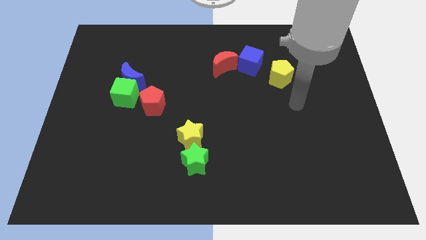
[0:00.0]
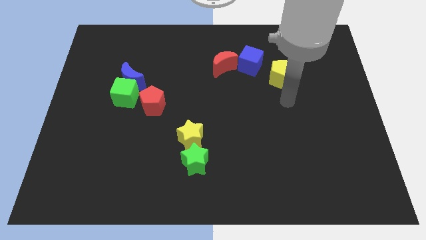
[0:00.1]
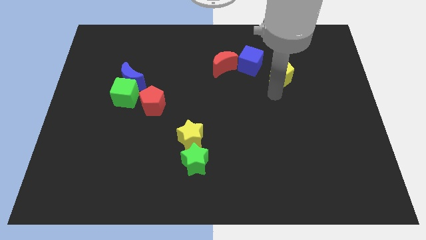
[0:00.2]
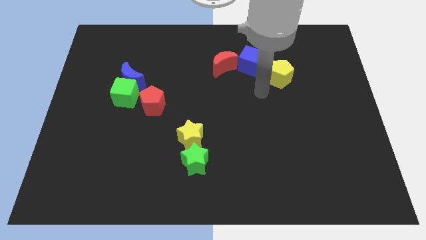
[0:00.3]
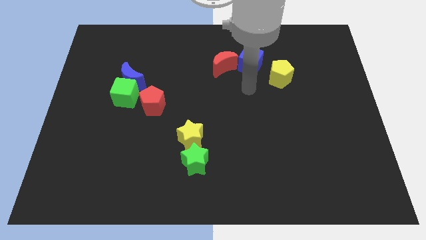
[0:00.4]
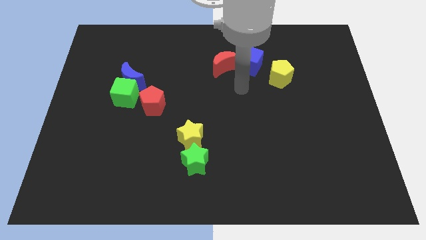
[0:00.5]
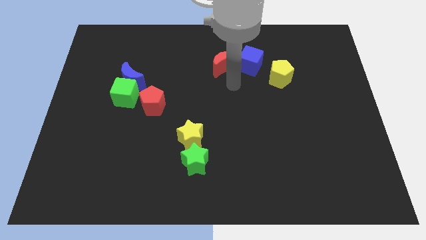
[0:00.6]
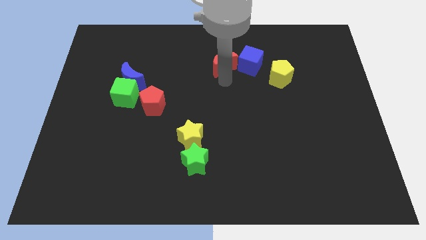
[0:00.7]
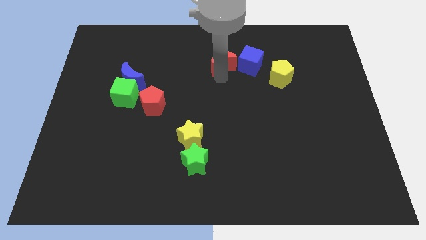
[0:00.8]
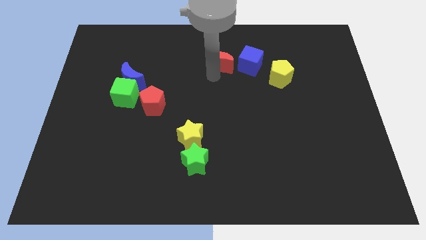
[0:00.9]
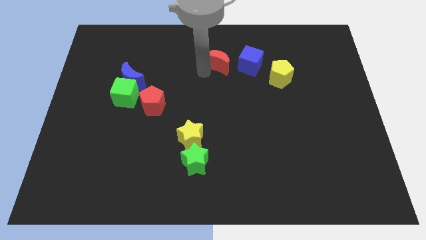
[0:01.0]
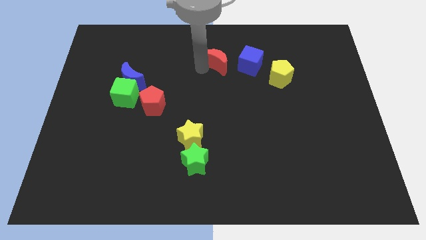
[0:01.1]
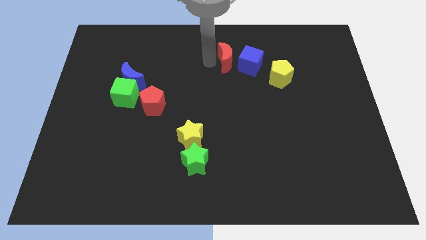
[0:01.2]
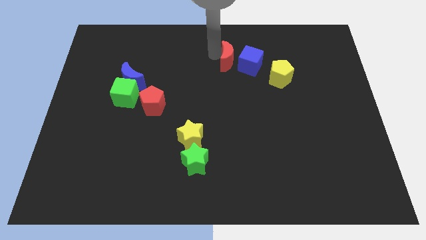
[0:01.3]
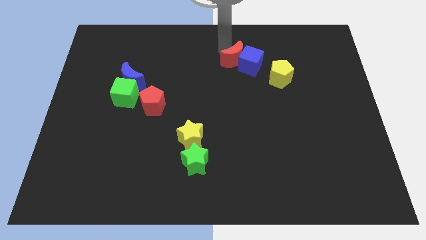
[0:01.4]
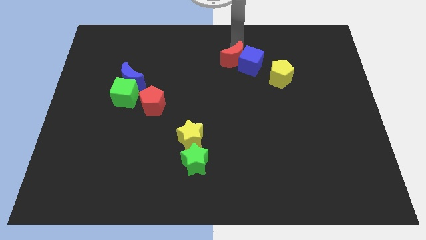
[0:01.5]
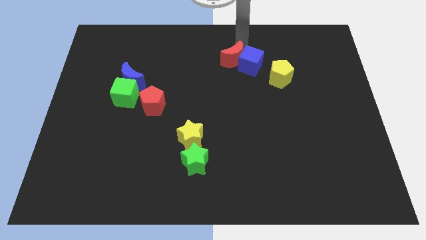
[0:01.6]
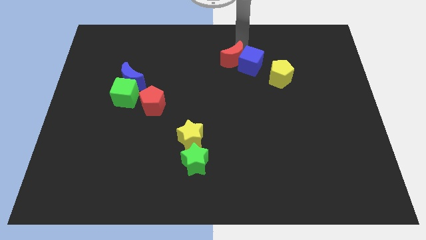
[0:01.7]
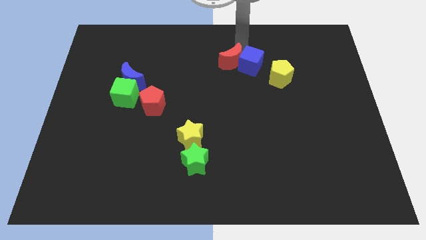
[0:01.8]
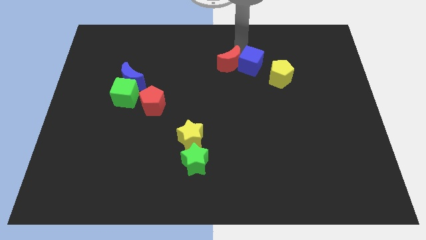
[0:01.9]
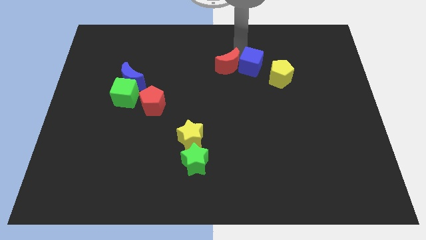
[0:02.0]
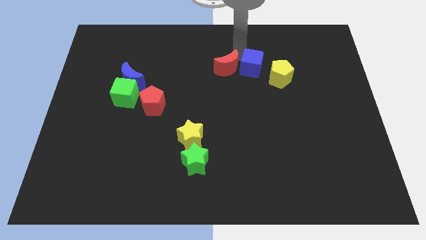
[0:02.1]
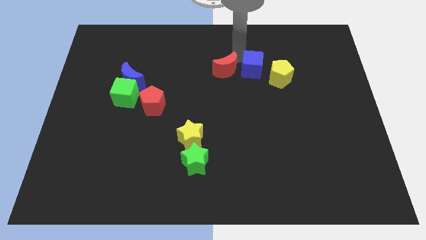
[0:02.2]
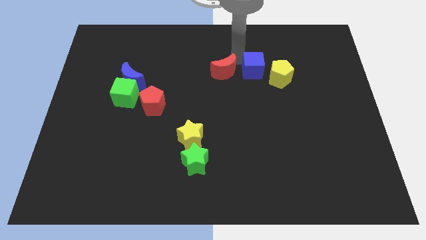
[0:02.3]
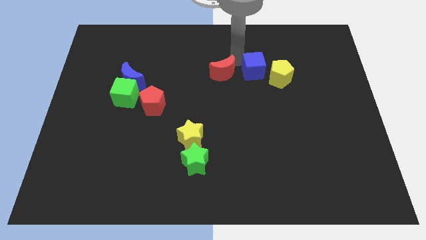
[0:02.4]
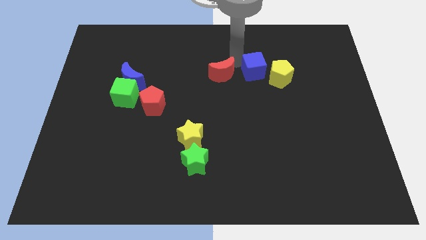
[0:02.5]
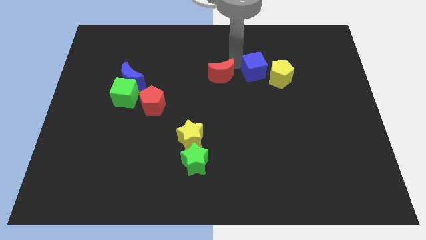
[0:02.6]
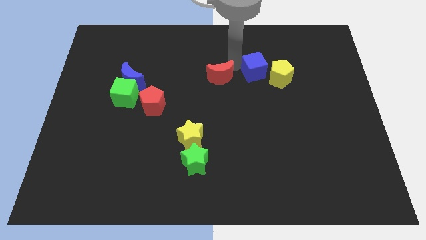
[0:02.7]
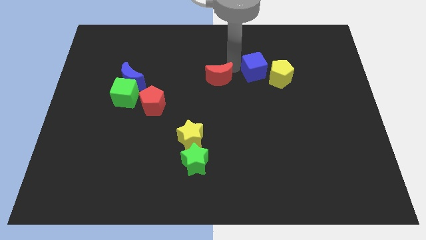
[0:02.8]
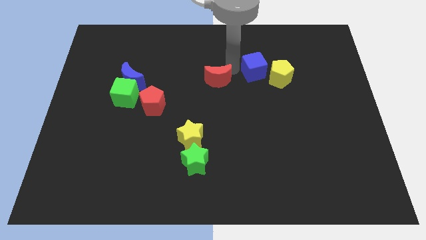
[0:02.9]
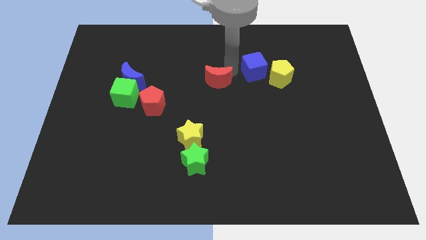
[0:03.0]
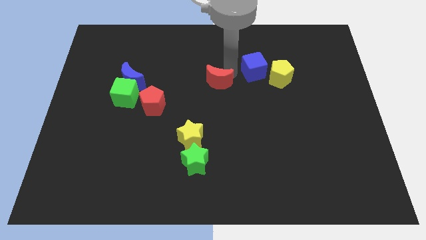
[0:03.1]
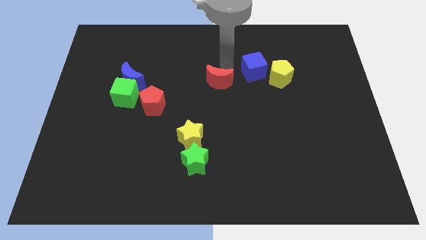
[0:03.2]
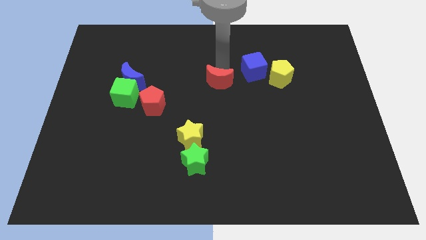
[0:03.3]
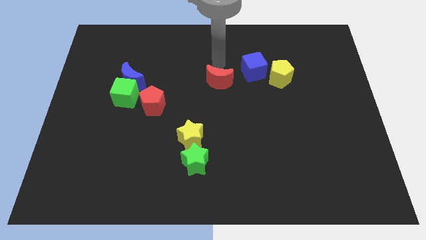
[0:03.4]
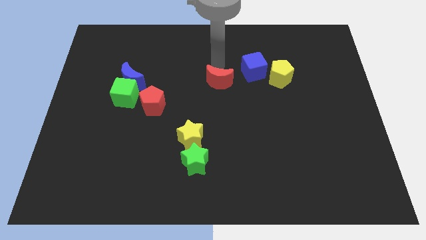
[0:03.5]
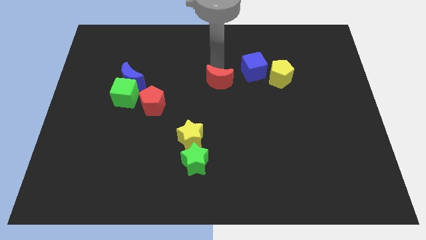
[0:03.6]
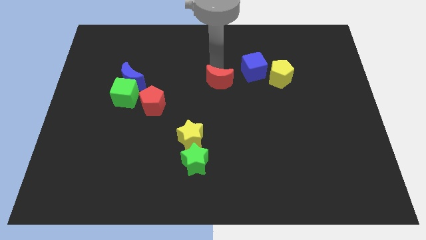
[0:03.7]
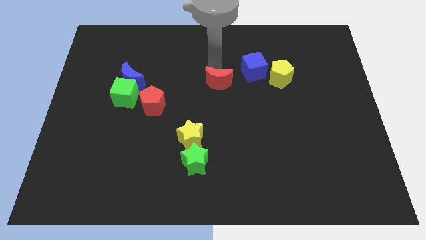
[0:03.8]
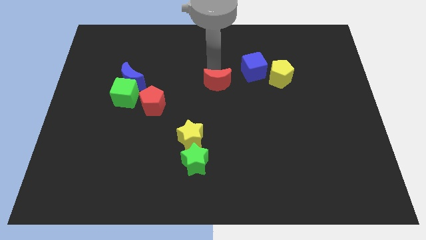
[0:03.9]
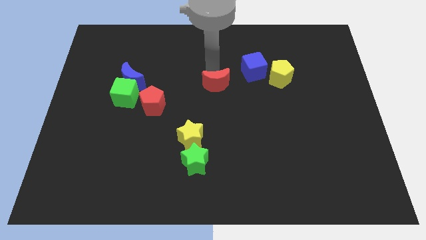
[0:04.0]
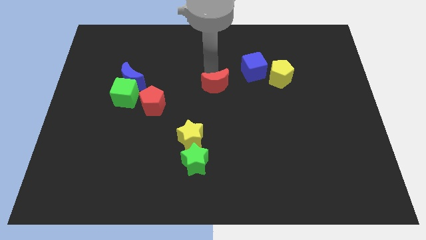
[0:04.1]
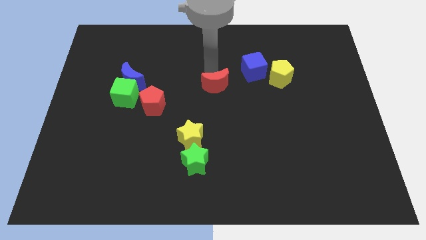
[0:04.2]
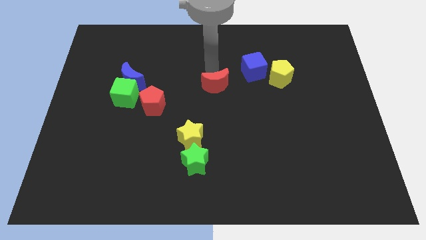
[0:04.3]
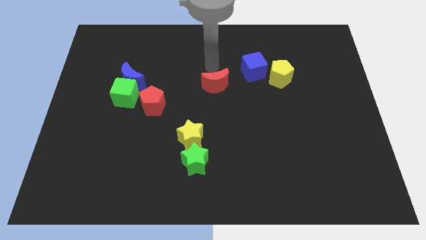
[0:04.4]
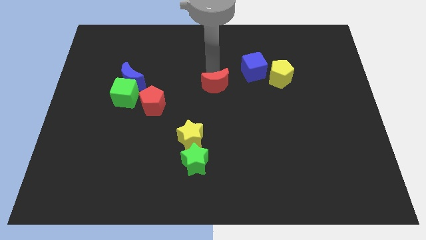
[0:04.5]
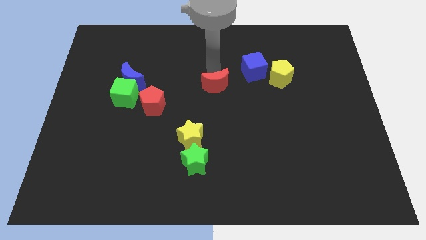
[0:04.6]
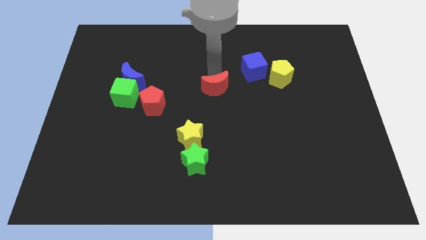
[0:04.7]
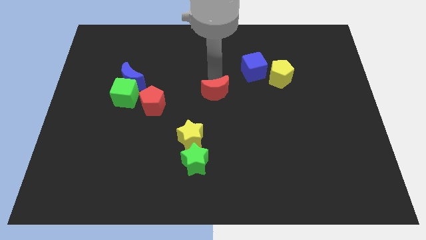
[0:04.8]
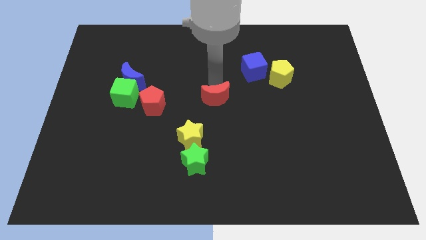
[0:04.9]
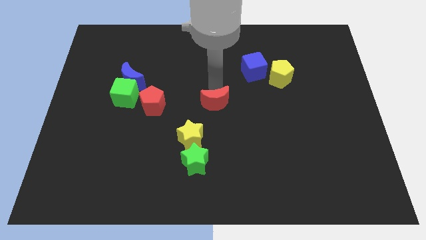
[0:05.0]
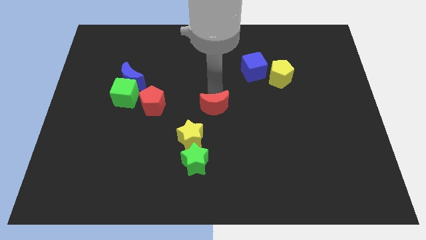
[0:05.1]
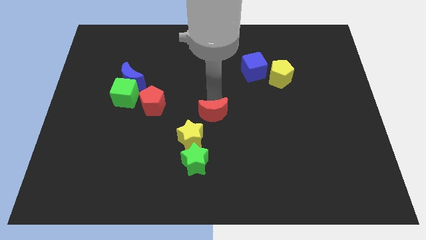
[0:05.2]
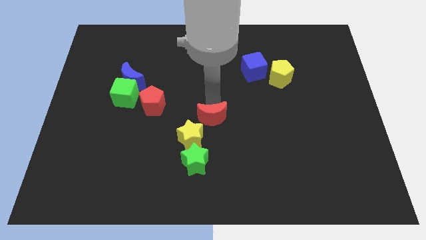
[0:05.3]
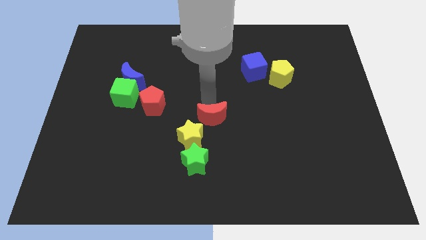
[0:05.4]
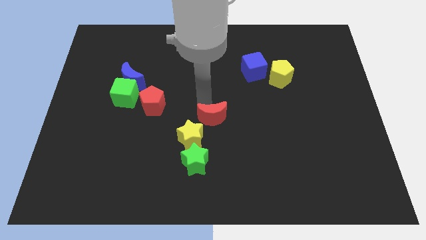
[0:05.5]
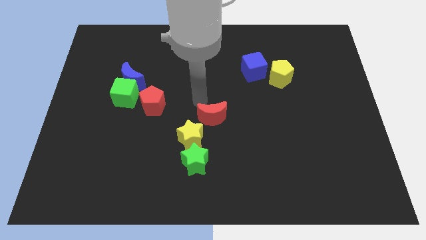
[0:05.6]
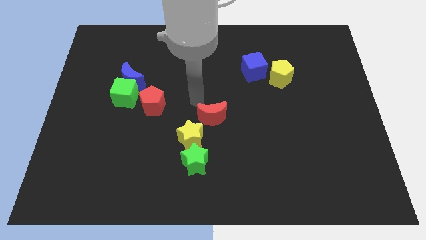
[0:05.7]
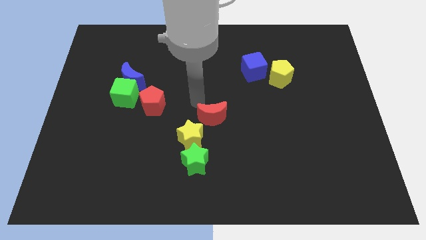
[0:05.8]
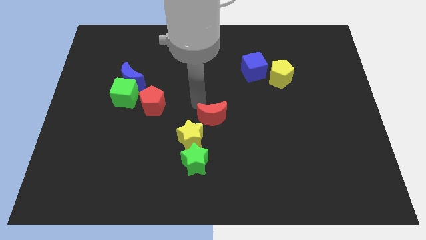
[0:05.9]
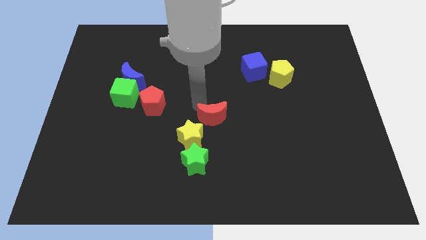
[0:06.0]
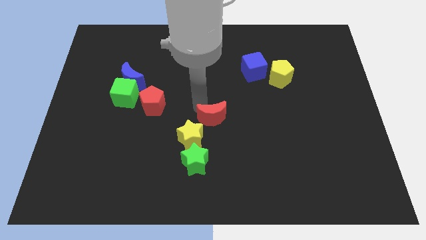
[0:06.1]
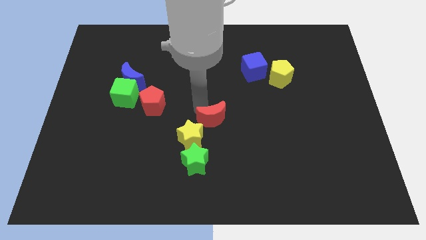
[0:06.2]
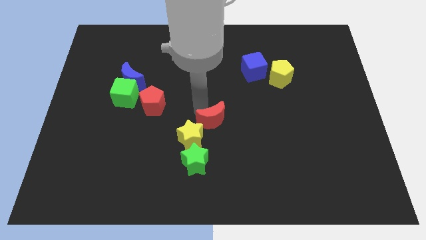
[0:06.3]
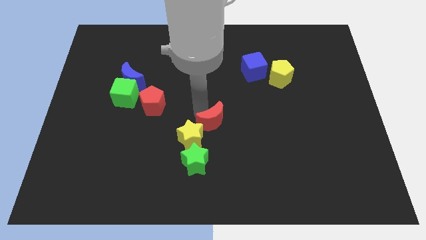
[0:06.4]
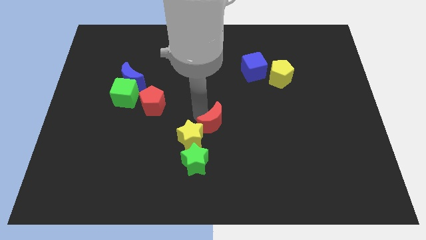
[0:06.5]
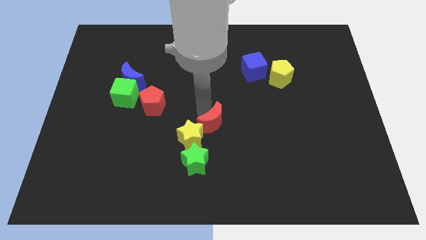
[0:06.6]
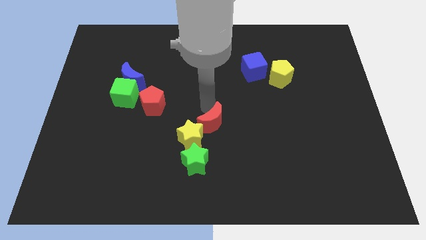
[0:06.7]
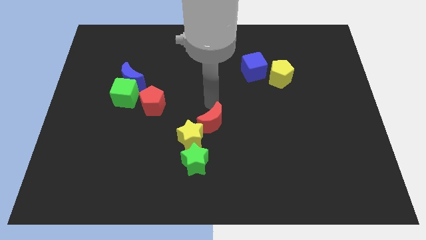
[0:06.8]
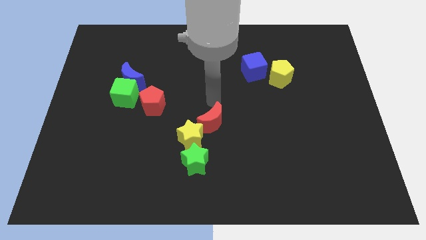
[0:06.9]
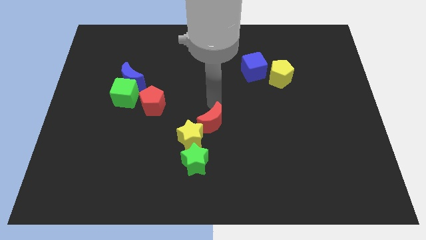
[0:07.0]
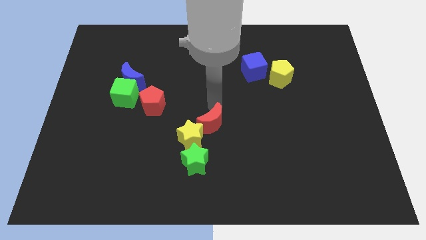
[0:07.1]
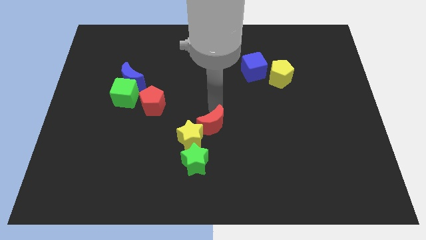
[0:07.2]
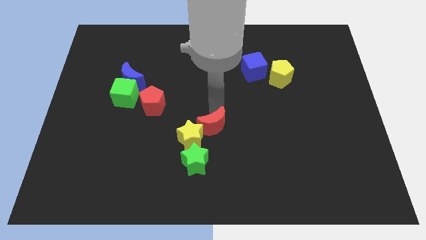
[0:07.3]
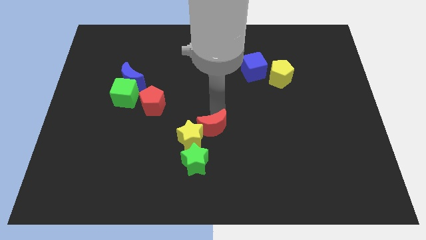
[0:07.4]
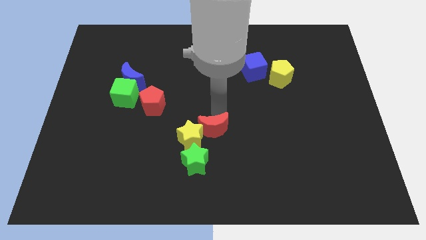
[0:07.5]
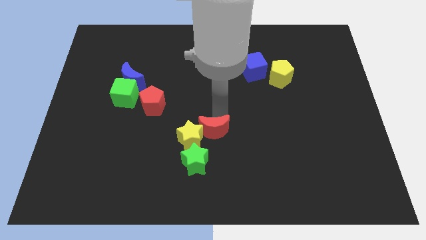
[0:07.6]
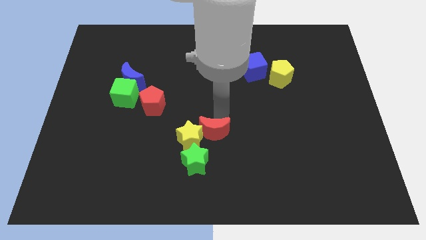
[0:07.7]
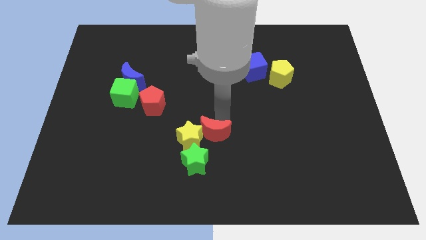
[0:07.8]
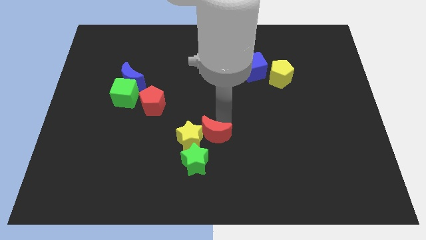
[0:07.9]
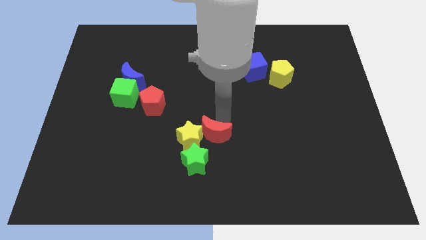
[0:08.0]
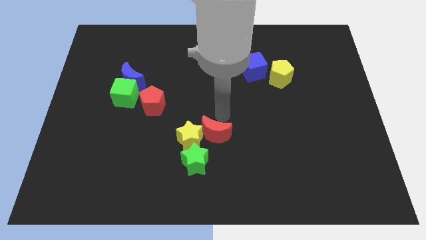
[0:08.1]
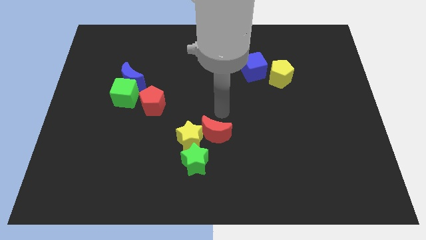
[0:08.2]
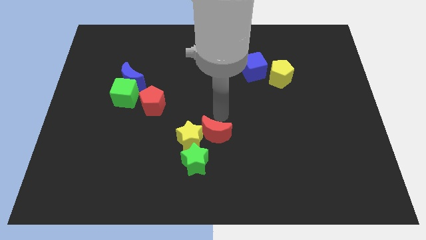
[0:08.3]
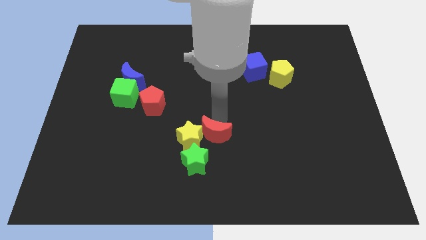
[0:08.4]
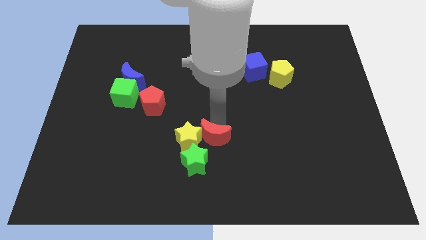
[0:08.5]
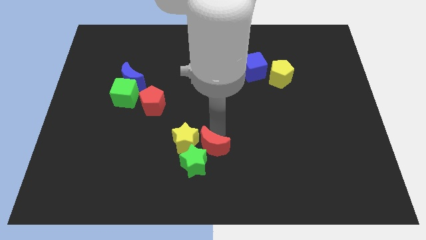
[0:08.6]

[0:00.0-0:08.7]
put the red moon next to the green star
